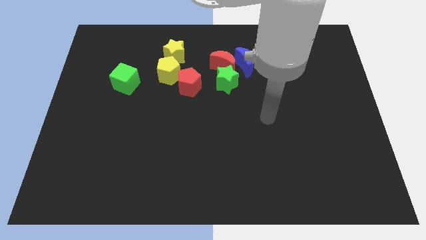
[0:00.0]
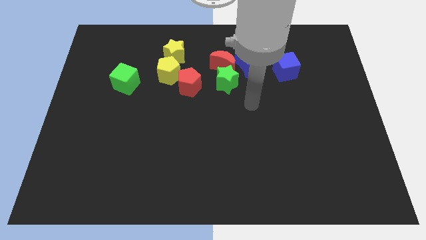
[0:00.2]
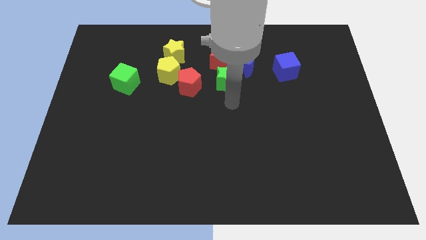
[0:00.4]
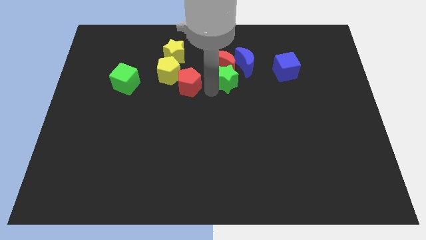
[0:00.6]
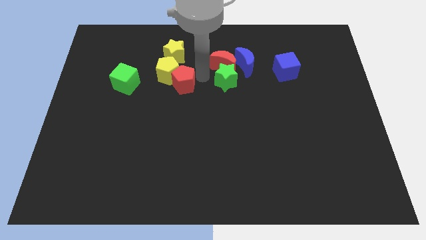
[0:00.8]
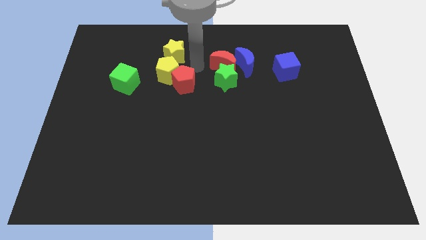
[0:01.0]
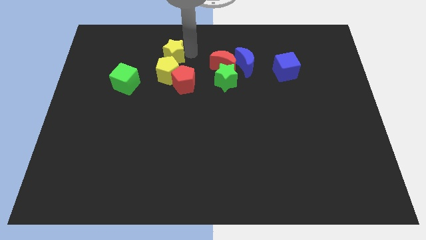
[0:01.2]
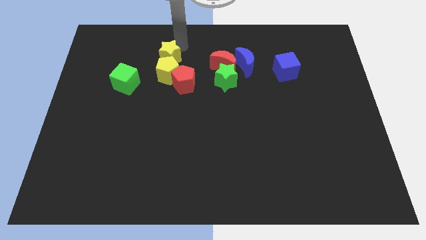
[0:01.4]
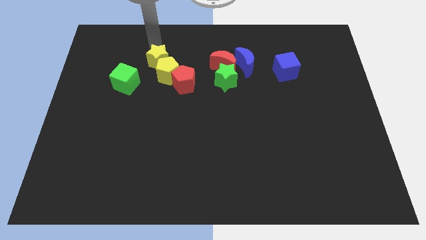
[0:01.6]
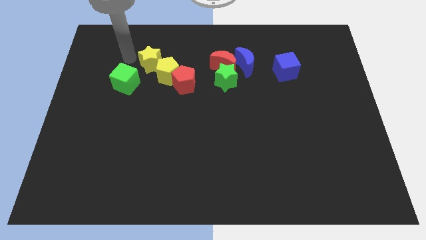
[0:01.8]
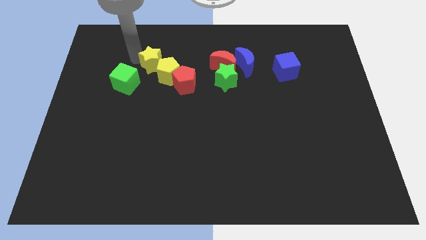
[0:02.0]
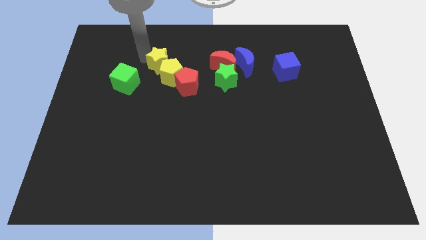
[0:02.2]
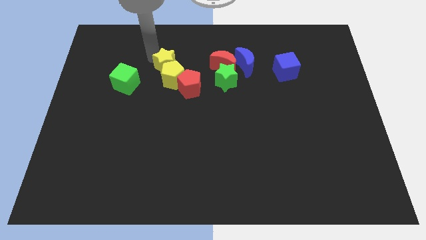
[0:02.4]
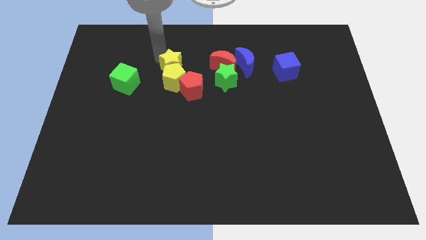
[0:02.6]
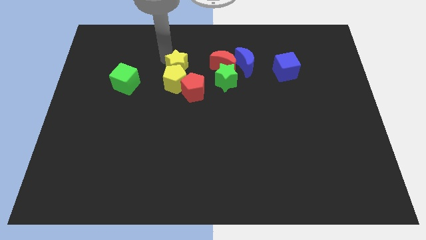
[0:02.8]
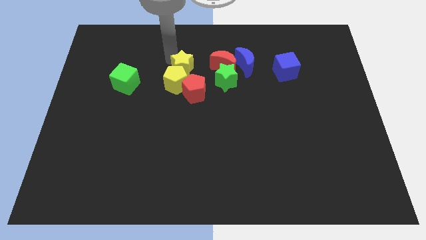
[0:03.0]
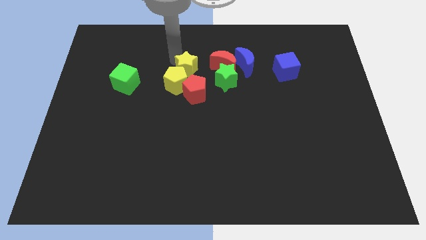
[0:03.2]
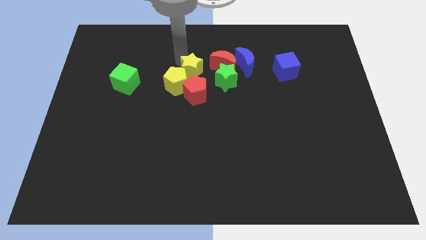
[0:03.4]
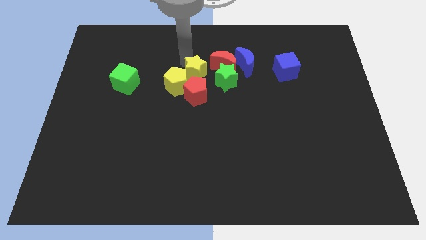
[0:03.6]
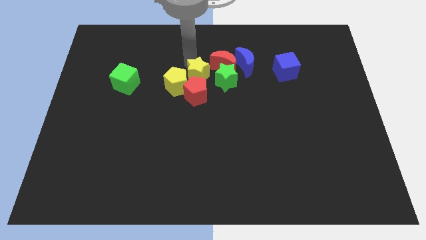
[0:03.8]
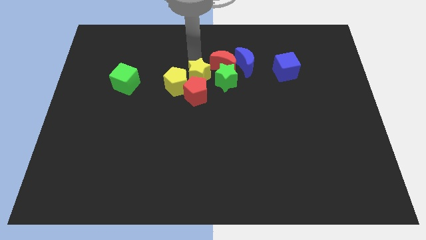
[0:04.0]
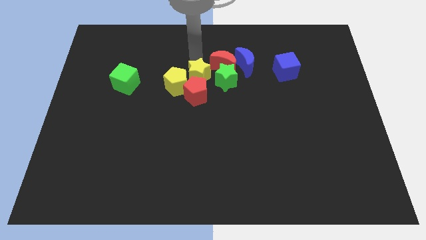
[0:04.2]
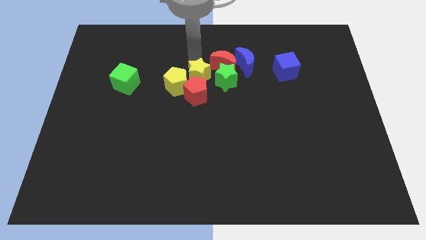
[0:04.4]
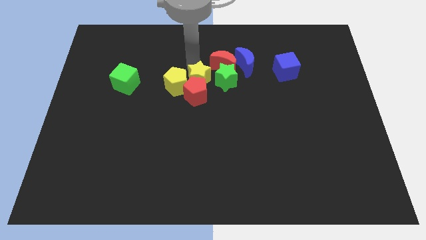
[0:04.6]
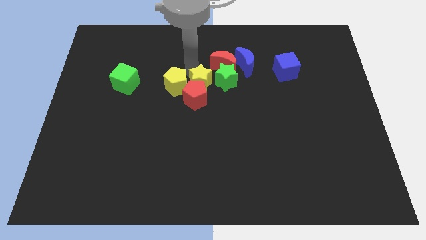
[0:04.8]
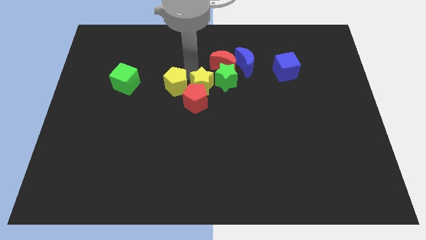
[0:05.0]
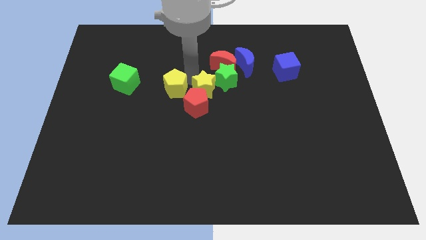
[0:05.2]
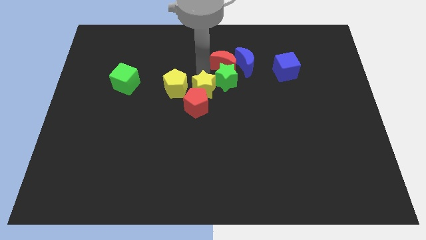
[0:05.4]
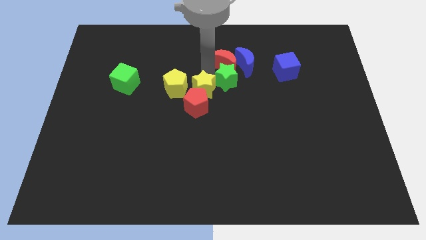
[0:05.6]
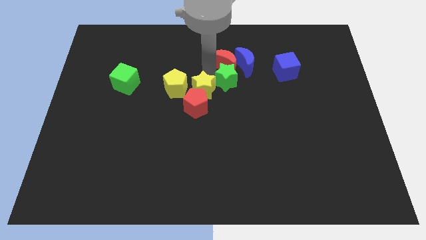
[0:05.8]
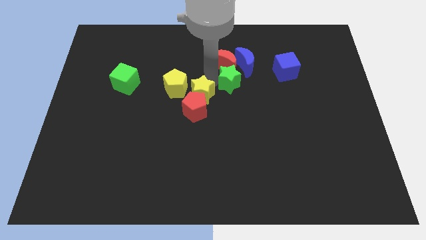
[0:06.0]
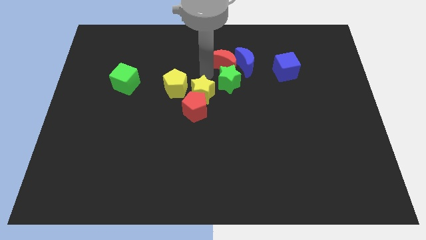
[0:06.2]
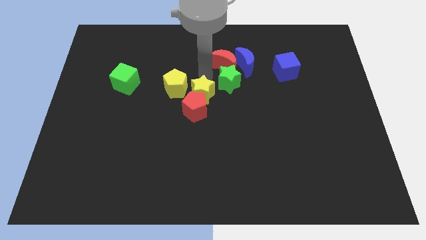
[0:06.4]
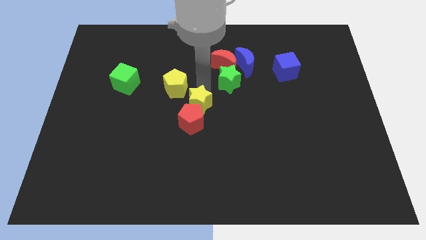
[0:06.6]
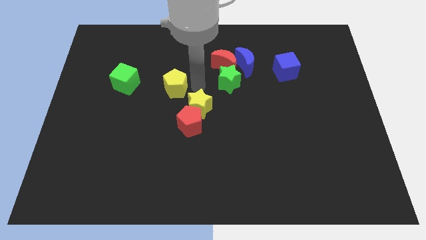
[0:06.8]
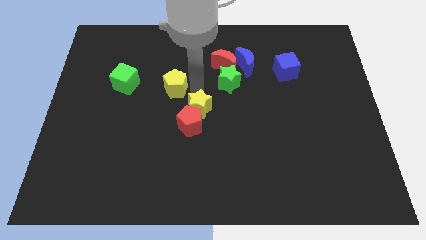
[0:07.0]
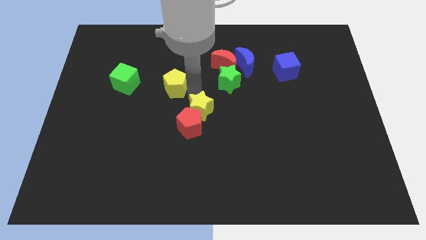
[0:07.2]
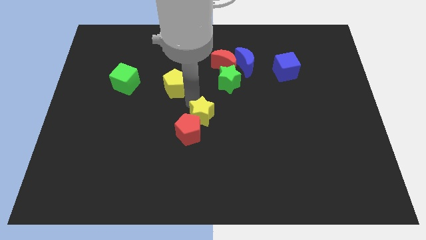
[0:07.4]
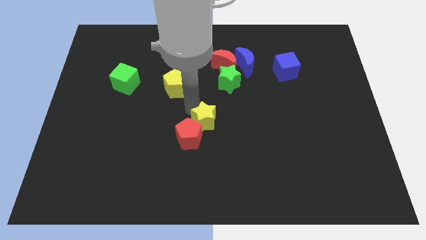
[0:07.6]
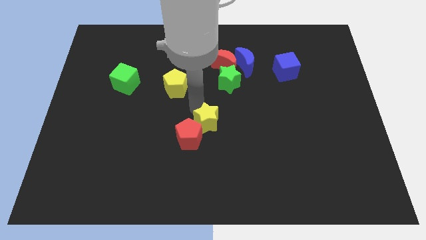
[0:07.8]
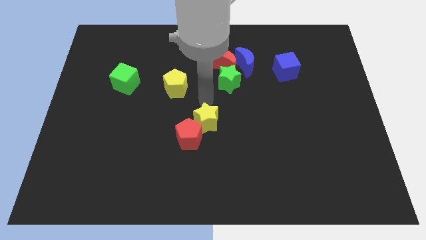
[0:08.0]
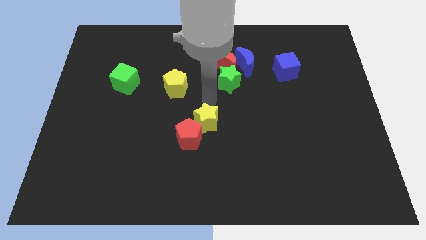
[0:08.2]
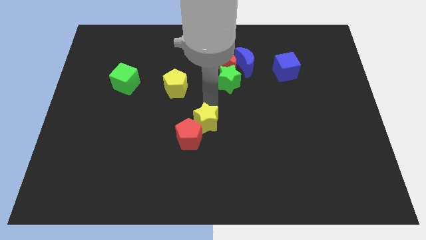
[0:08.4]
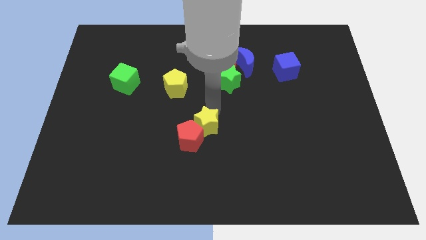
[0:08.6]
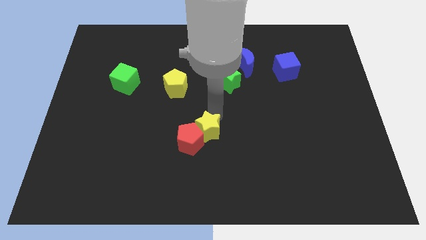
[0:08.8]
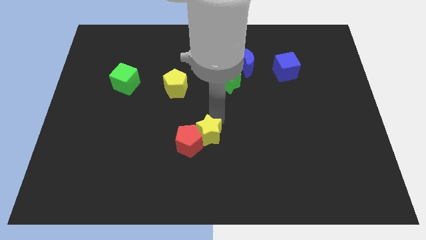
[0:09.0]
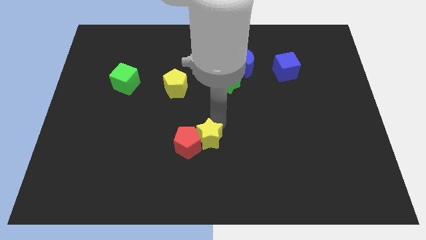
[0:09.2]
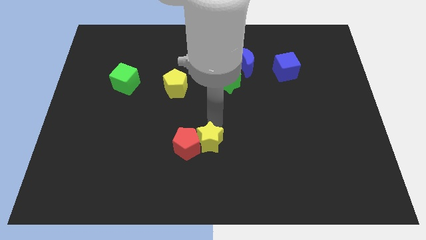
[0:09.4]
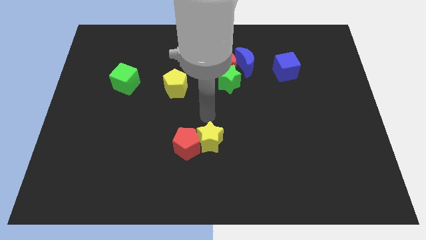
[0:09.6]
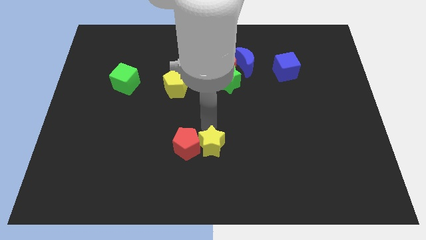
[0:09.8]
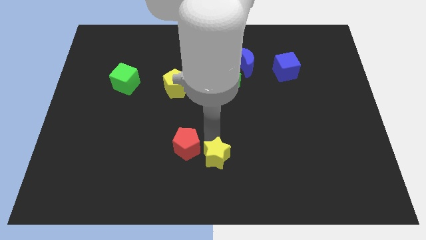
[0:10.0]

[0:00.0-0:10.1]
move the yellow star to the bottom

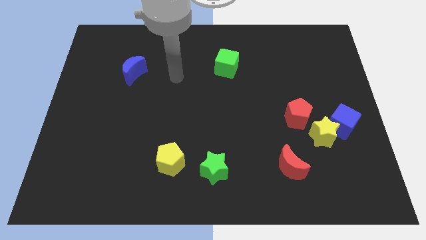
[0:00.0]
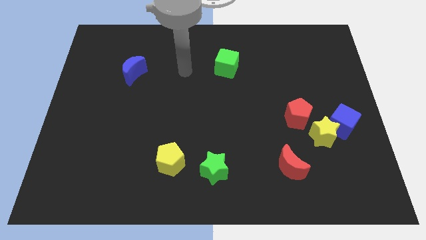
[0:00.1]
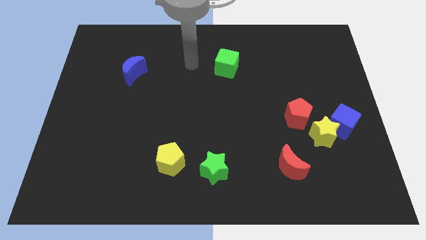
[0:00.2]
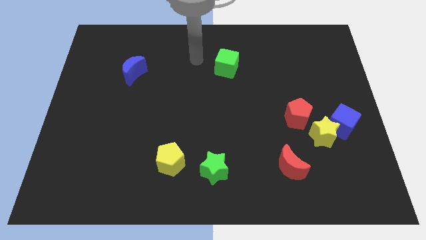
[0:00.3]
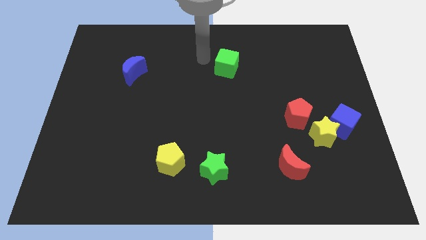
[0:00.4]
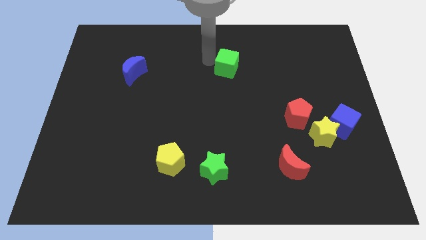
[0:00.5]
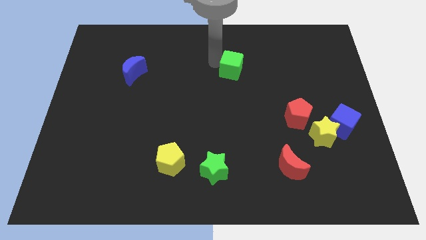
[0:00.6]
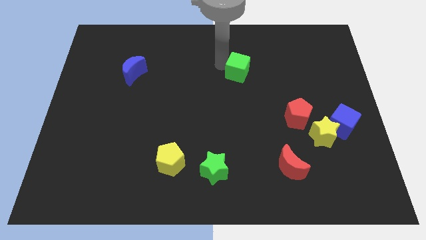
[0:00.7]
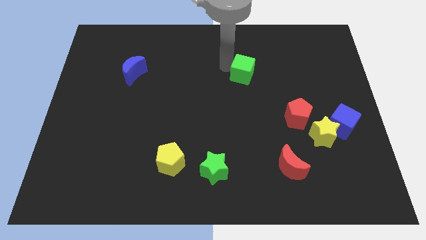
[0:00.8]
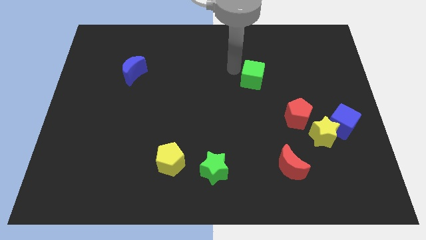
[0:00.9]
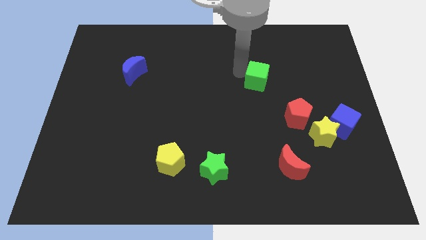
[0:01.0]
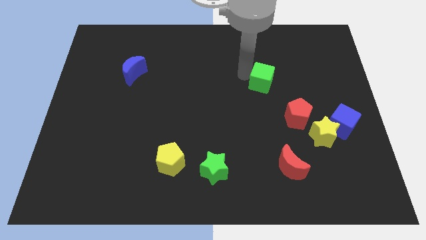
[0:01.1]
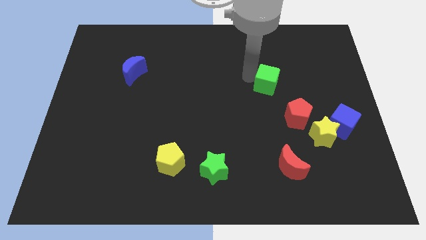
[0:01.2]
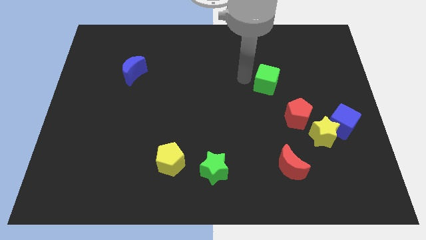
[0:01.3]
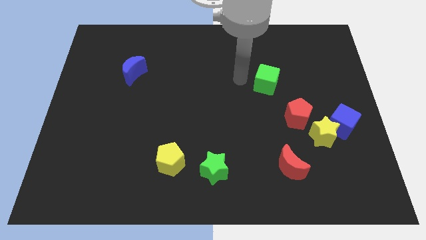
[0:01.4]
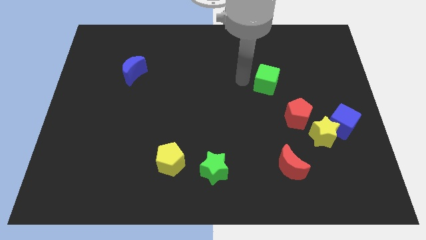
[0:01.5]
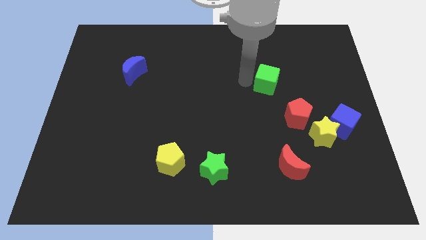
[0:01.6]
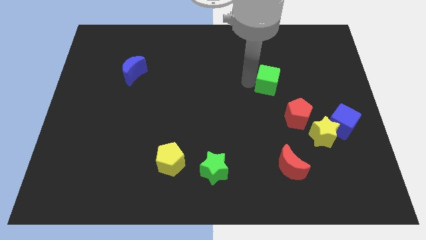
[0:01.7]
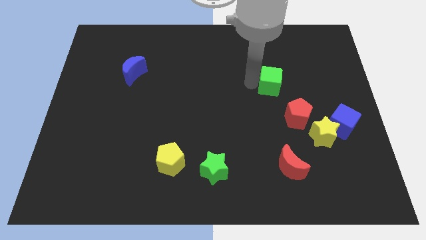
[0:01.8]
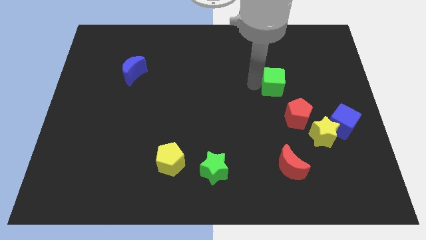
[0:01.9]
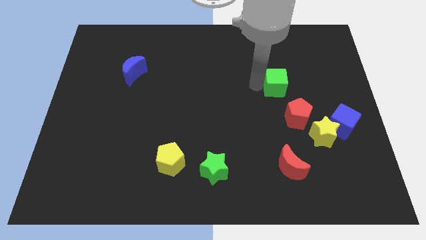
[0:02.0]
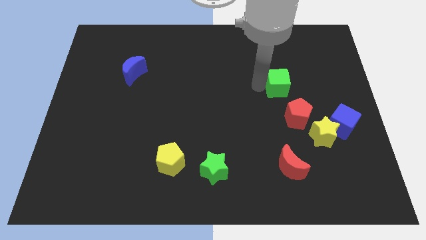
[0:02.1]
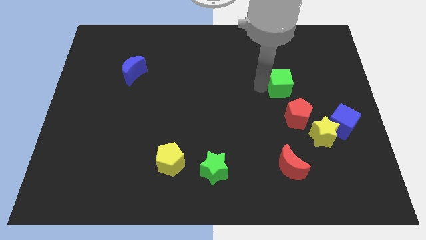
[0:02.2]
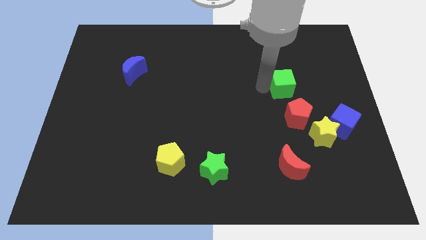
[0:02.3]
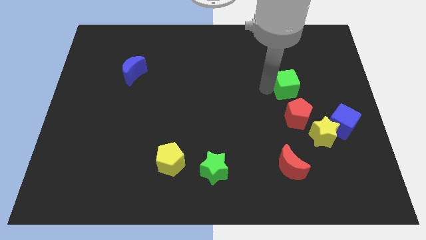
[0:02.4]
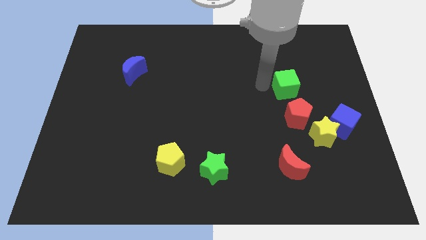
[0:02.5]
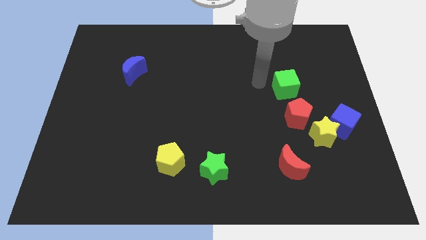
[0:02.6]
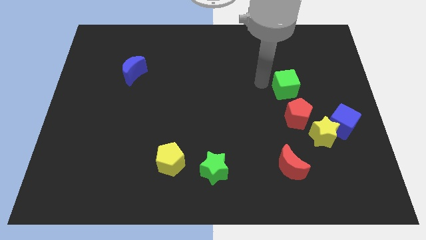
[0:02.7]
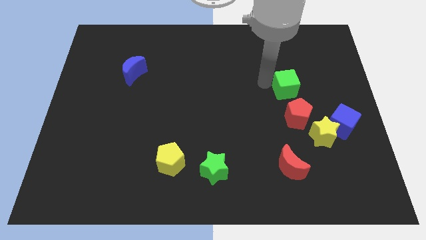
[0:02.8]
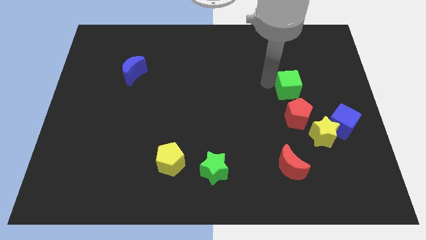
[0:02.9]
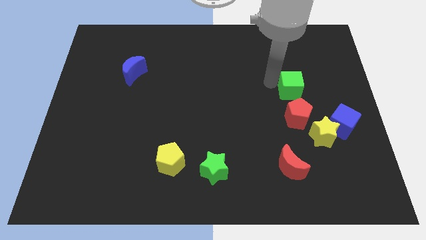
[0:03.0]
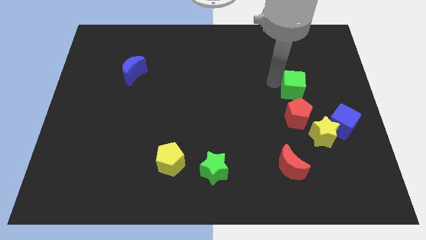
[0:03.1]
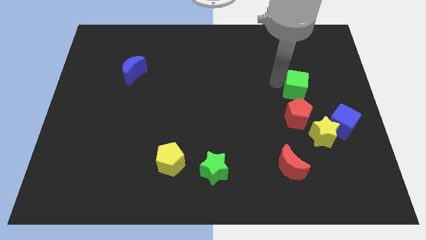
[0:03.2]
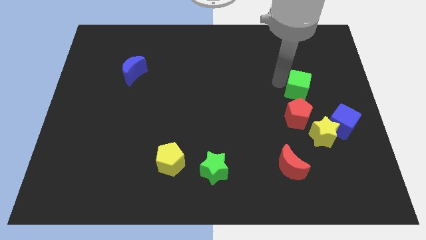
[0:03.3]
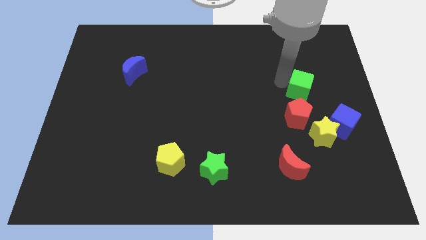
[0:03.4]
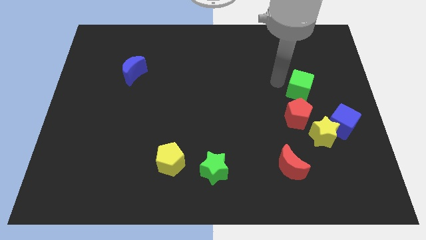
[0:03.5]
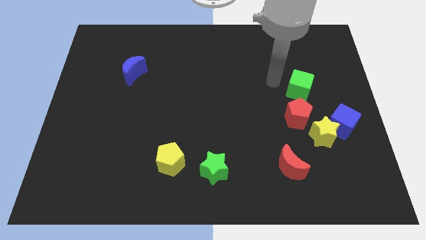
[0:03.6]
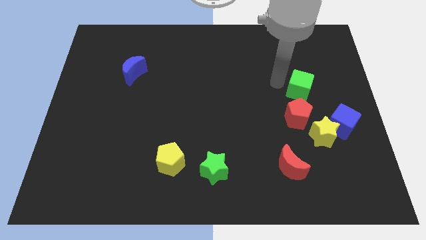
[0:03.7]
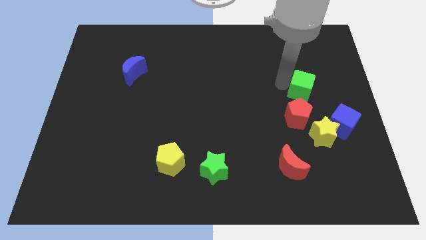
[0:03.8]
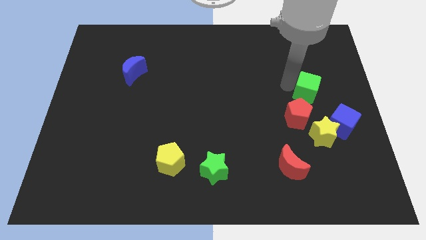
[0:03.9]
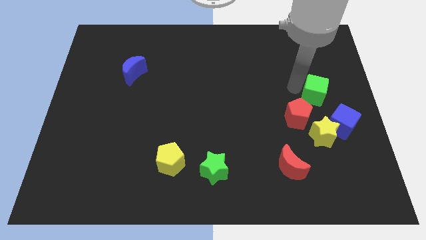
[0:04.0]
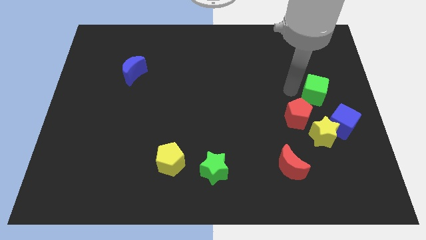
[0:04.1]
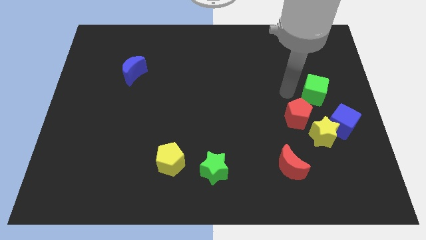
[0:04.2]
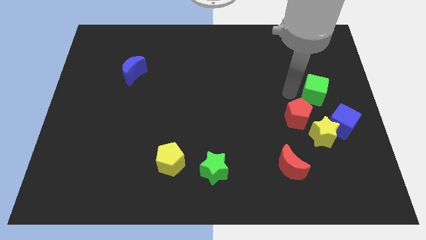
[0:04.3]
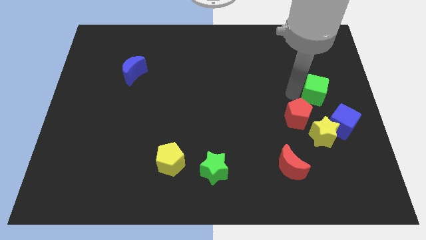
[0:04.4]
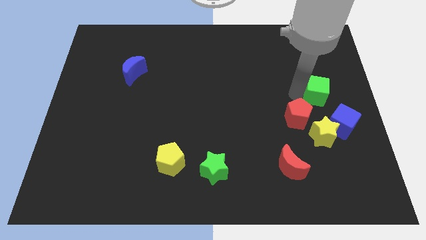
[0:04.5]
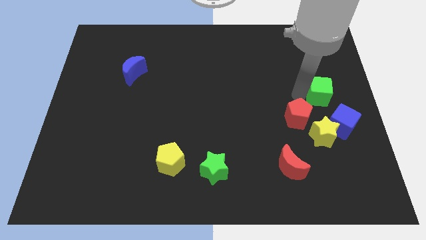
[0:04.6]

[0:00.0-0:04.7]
move the green cube to the center right
